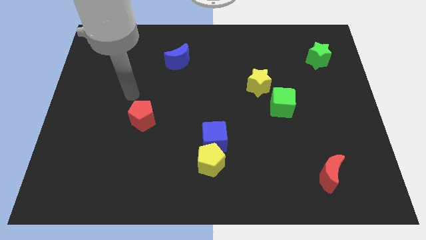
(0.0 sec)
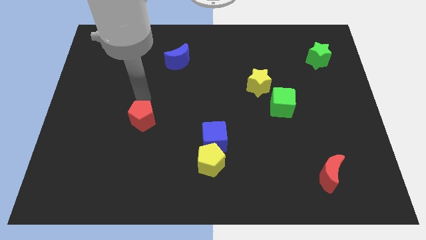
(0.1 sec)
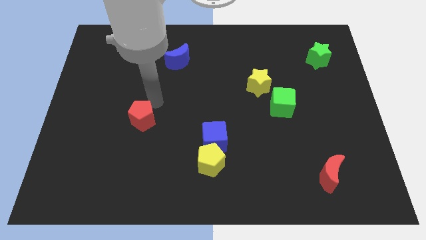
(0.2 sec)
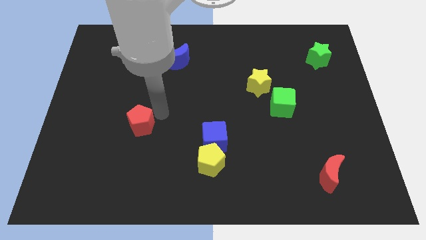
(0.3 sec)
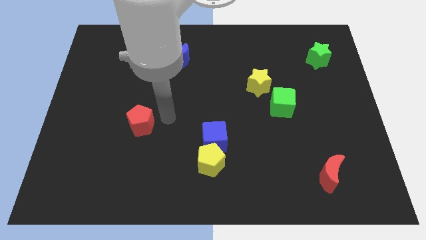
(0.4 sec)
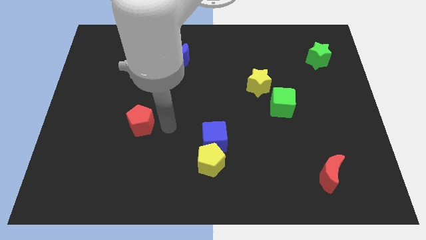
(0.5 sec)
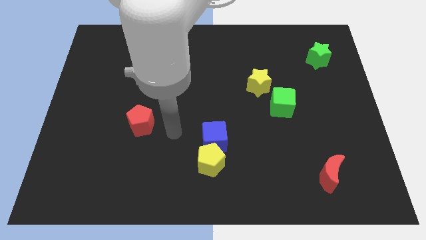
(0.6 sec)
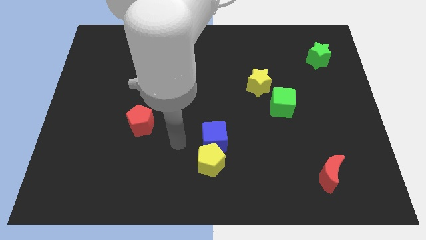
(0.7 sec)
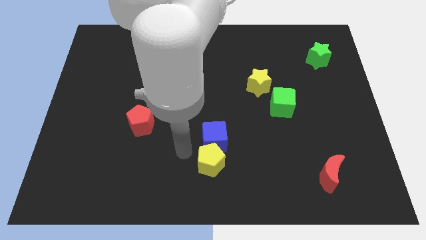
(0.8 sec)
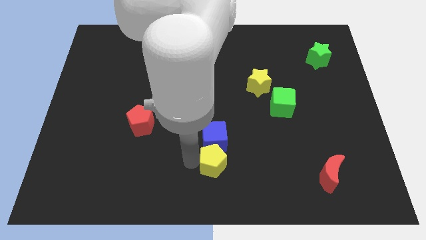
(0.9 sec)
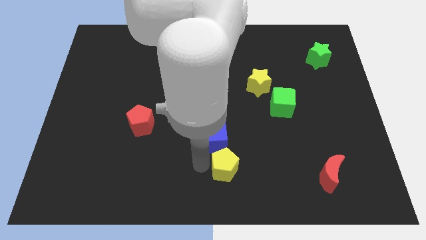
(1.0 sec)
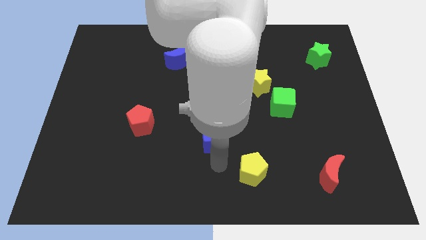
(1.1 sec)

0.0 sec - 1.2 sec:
move the blue cube away from the yellow pentagon

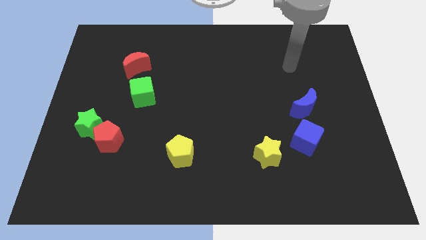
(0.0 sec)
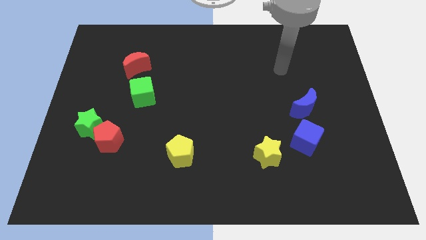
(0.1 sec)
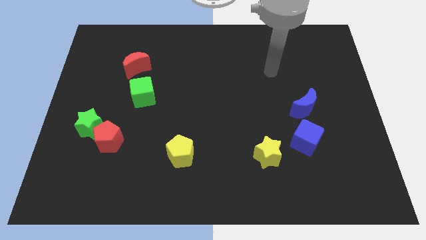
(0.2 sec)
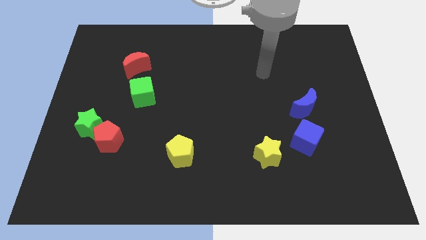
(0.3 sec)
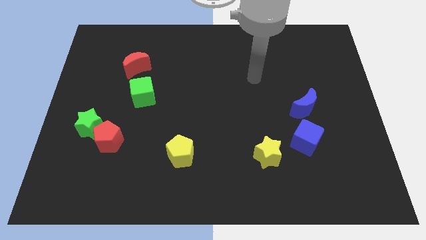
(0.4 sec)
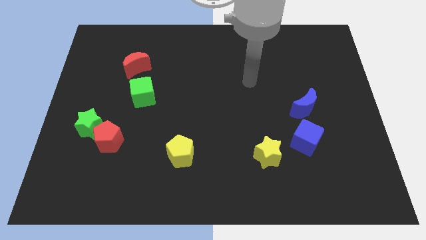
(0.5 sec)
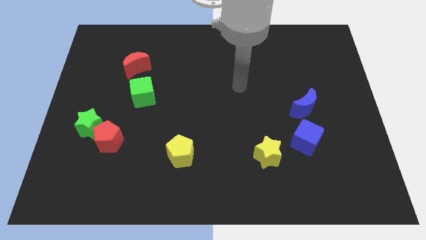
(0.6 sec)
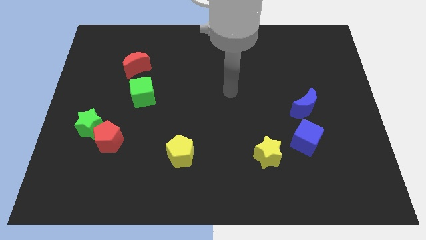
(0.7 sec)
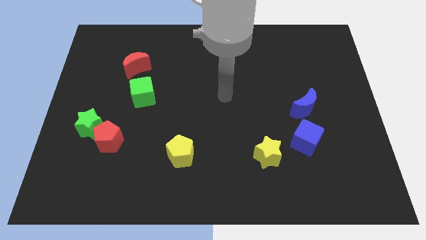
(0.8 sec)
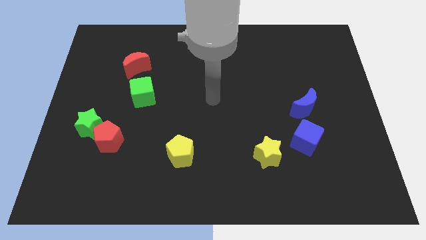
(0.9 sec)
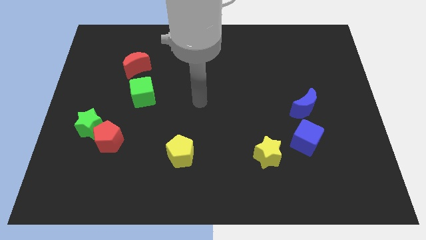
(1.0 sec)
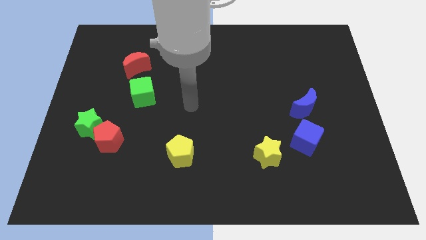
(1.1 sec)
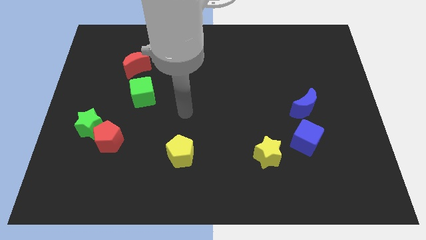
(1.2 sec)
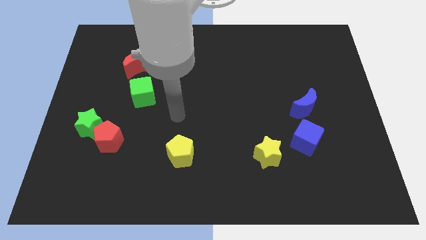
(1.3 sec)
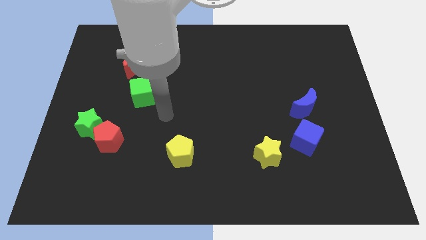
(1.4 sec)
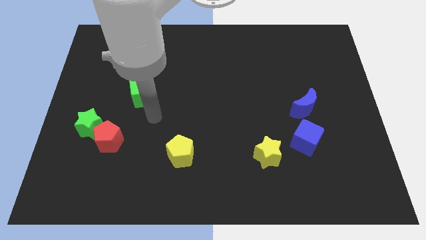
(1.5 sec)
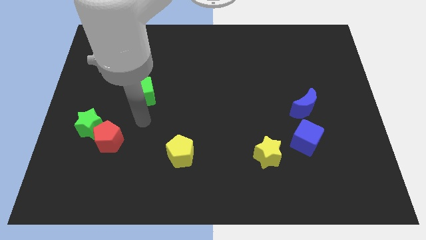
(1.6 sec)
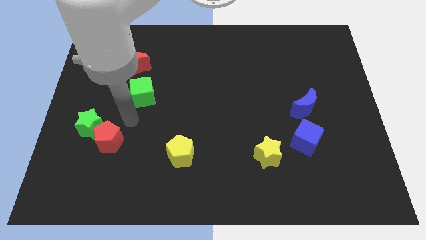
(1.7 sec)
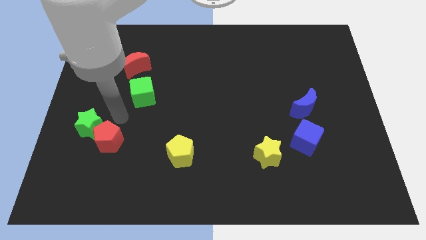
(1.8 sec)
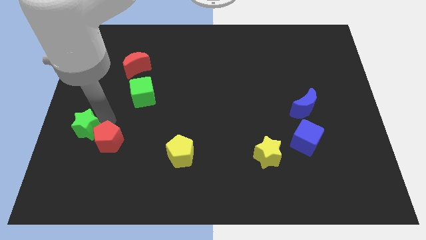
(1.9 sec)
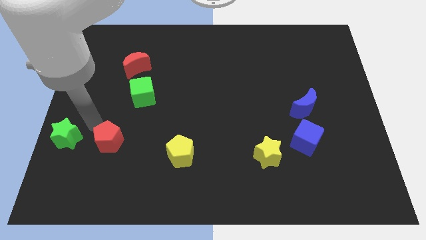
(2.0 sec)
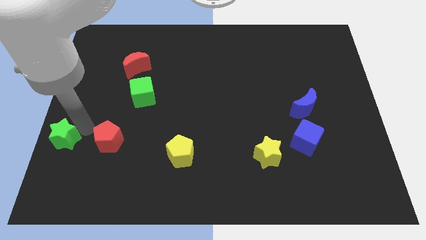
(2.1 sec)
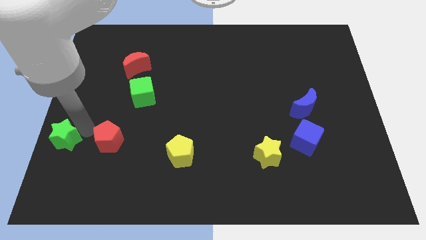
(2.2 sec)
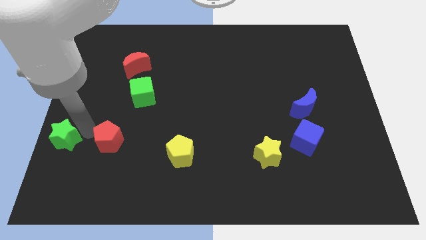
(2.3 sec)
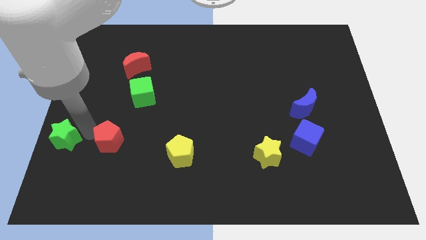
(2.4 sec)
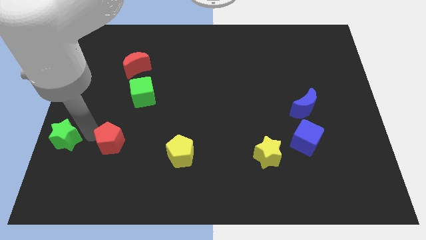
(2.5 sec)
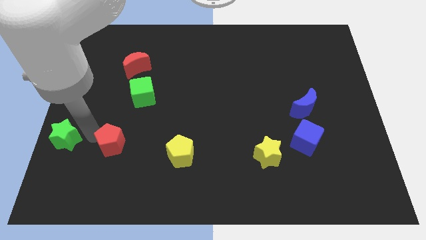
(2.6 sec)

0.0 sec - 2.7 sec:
move the red pentagon away from the green star

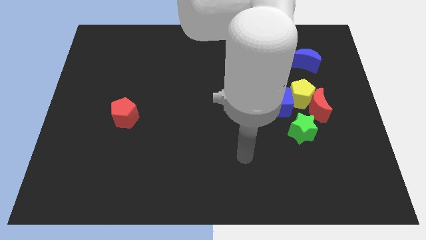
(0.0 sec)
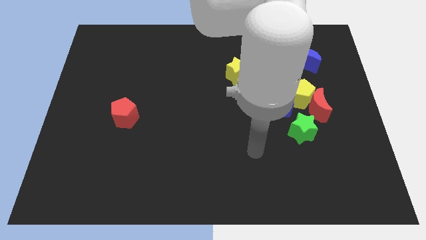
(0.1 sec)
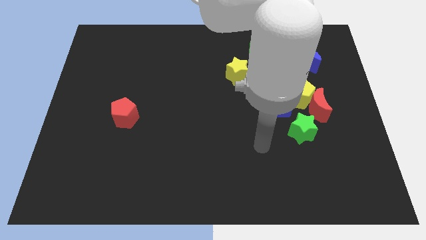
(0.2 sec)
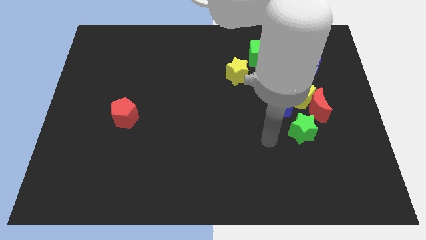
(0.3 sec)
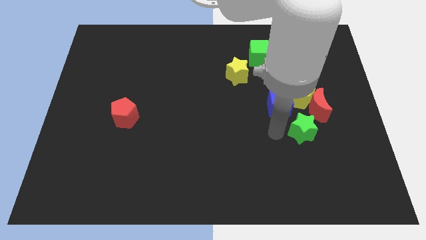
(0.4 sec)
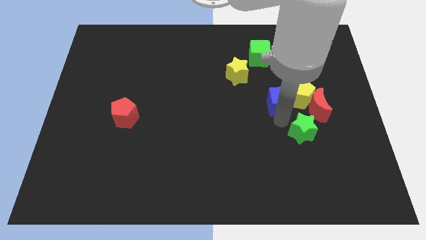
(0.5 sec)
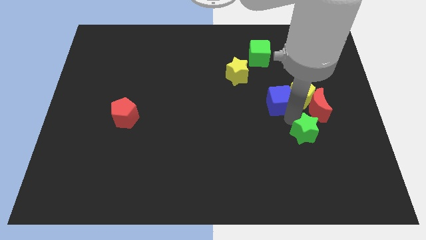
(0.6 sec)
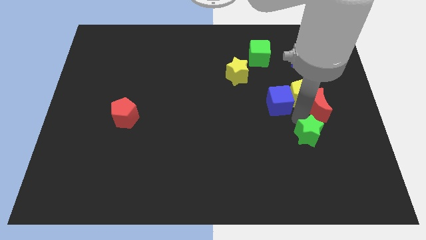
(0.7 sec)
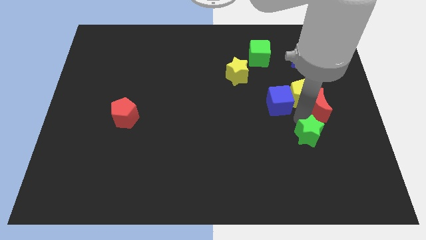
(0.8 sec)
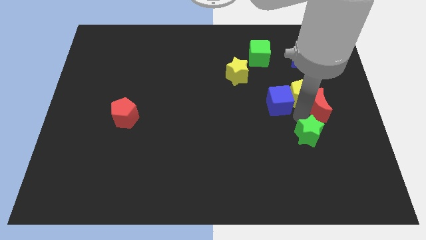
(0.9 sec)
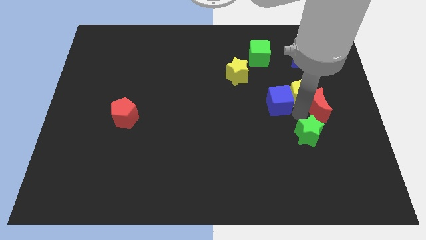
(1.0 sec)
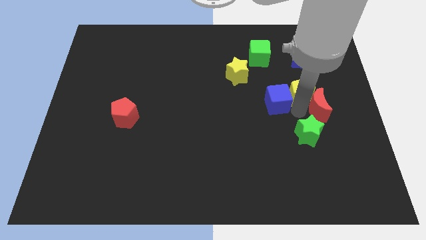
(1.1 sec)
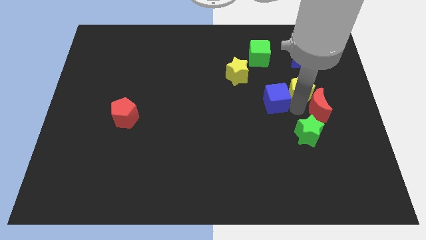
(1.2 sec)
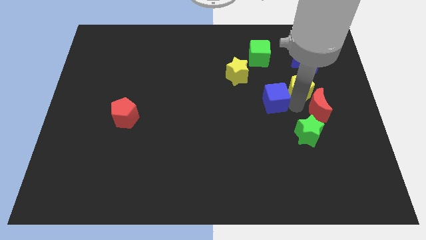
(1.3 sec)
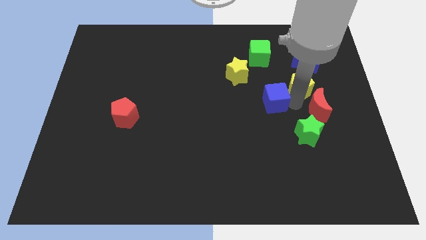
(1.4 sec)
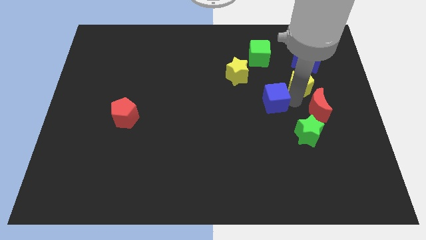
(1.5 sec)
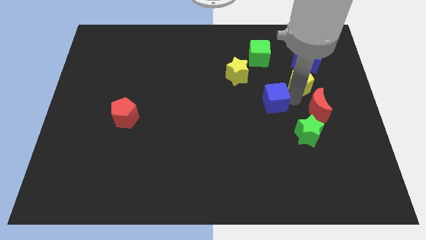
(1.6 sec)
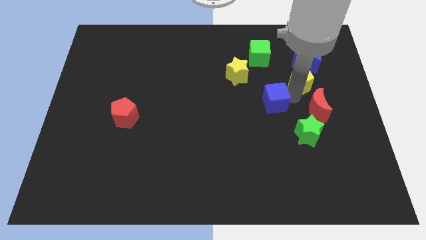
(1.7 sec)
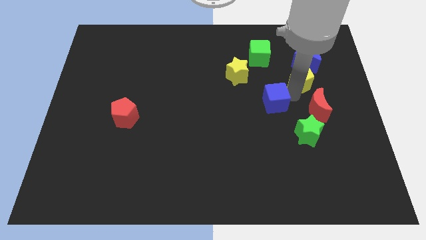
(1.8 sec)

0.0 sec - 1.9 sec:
pull the yellow pentagon apart from the red moon, blue cube, and green star

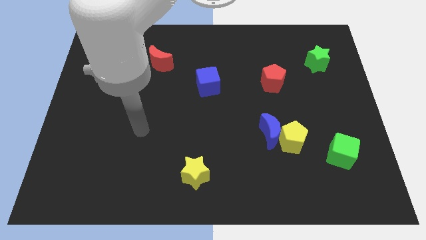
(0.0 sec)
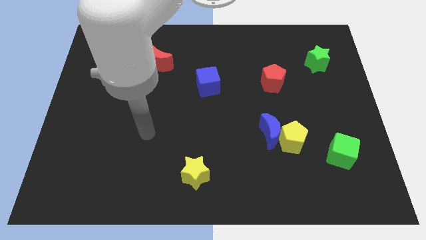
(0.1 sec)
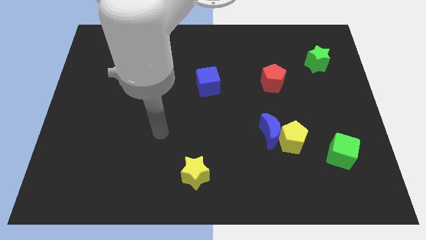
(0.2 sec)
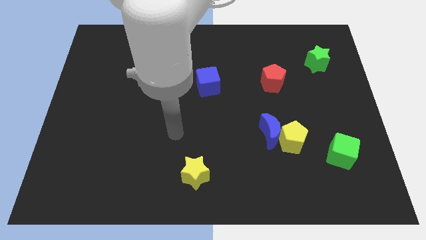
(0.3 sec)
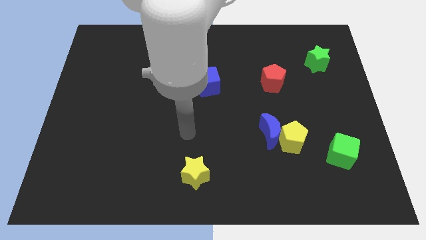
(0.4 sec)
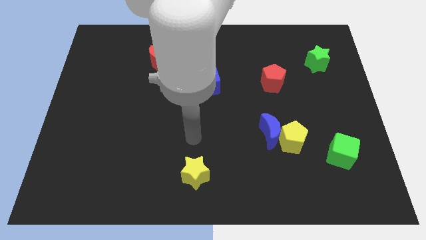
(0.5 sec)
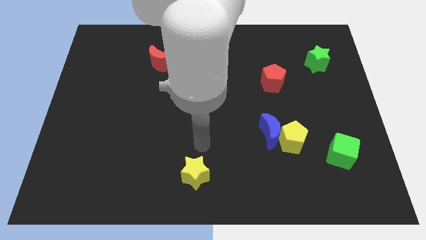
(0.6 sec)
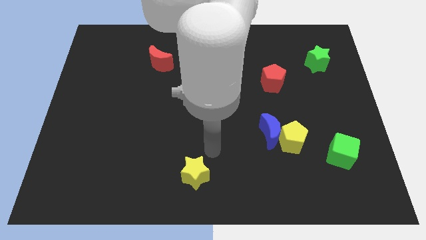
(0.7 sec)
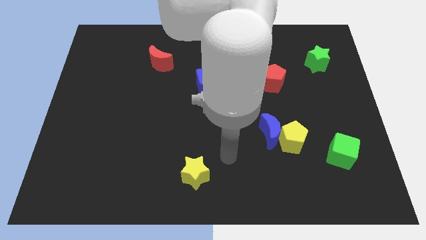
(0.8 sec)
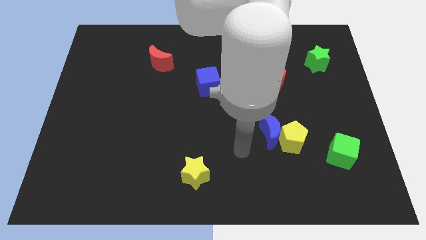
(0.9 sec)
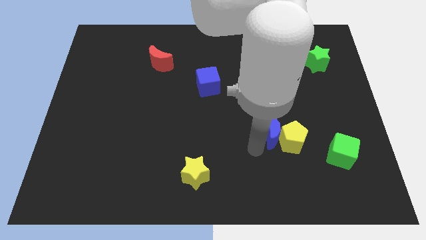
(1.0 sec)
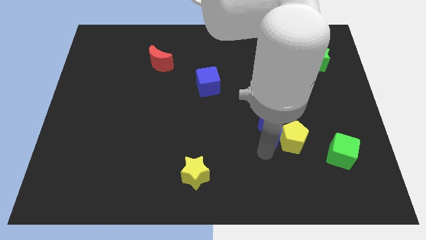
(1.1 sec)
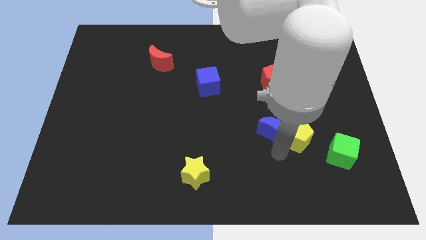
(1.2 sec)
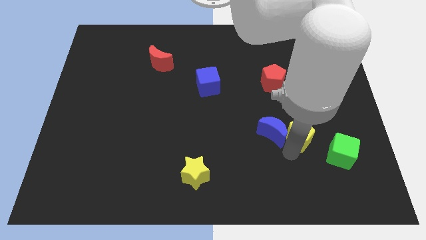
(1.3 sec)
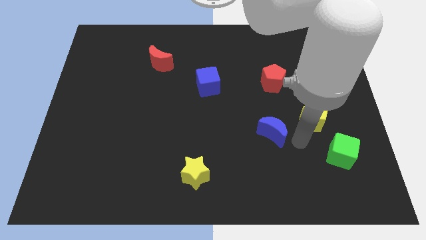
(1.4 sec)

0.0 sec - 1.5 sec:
move the blue moon away from the yellow pentagon

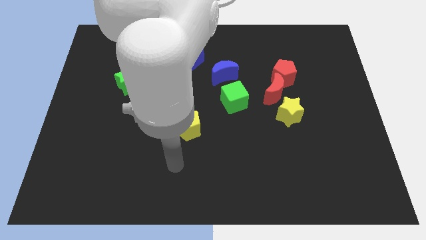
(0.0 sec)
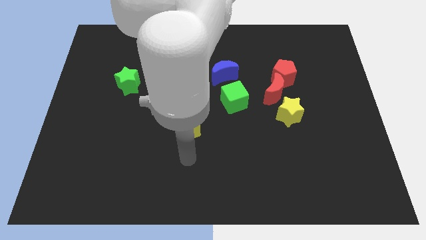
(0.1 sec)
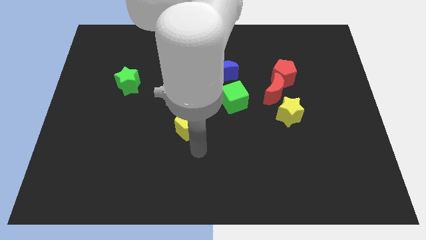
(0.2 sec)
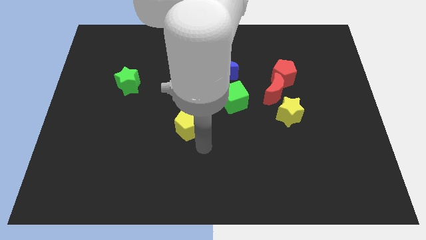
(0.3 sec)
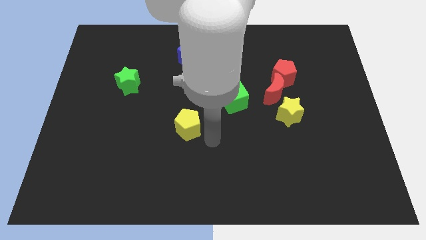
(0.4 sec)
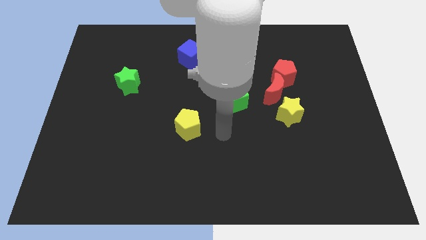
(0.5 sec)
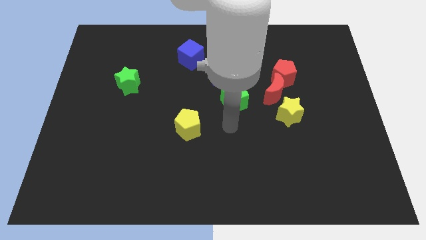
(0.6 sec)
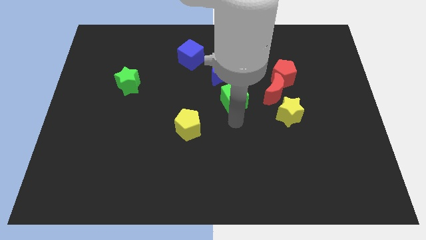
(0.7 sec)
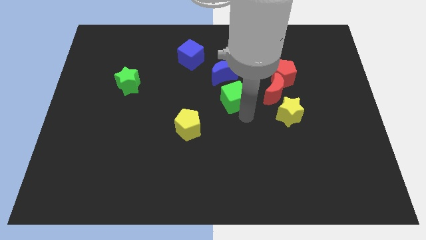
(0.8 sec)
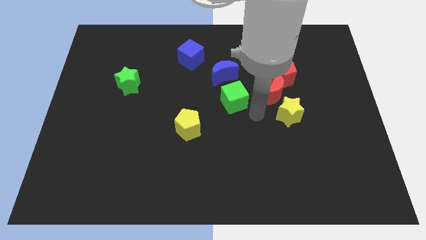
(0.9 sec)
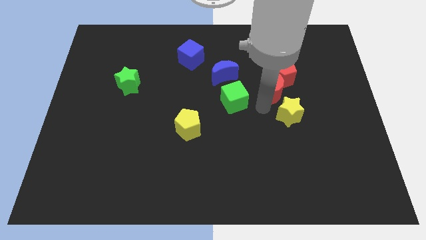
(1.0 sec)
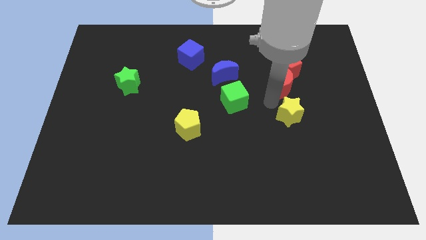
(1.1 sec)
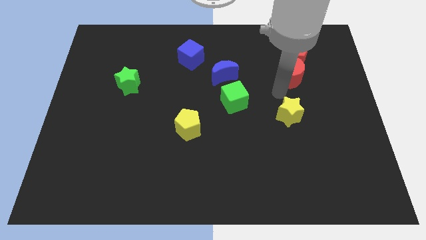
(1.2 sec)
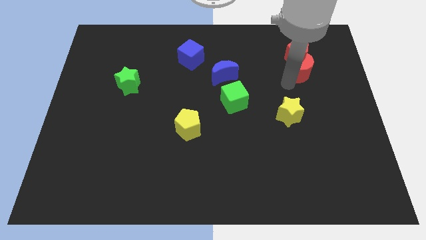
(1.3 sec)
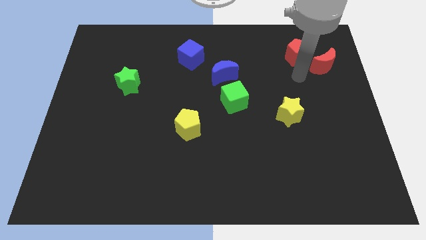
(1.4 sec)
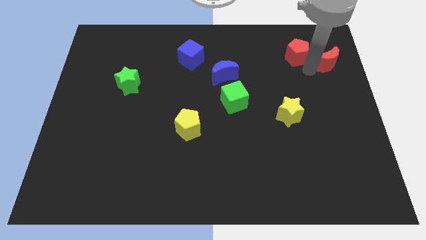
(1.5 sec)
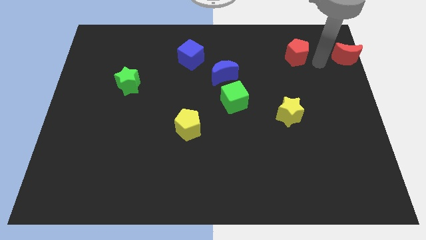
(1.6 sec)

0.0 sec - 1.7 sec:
separate the red pentagon from the red moon

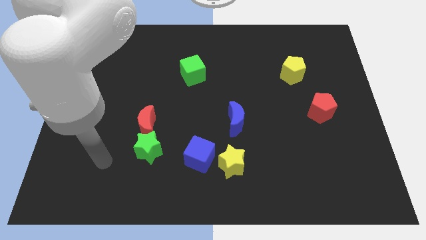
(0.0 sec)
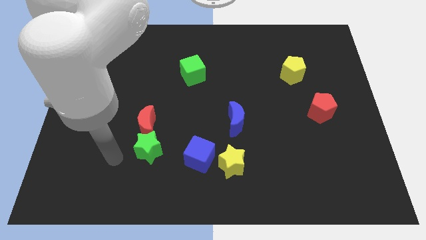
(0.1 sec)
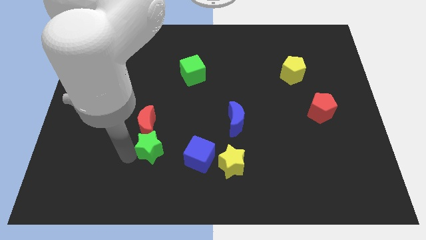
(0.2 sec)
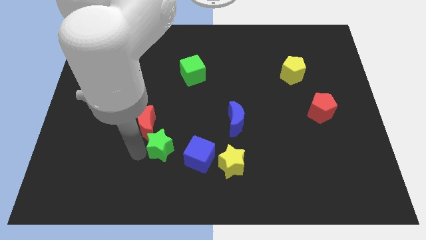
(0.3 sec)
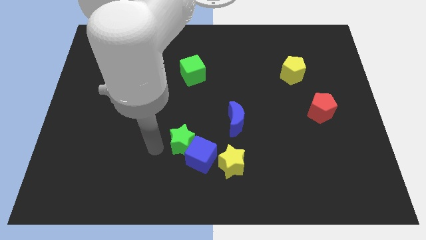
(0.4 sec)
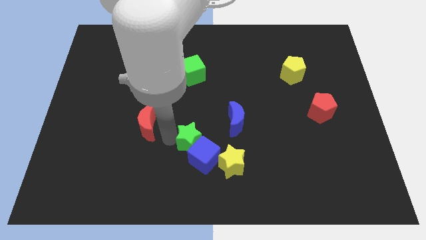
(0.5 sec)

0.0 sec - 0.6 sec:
move the red moon away from the green star
